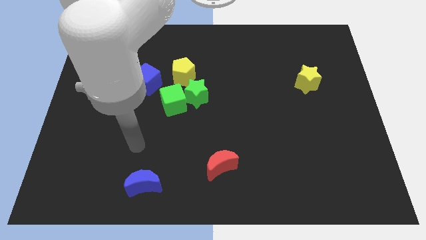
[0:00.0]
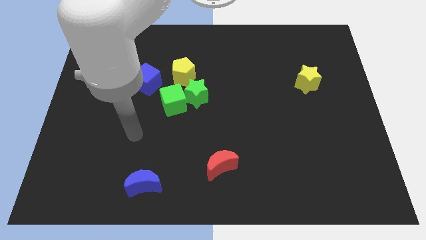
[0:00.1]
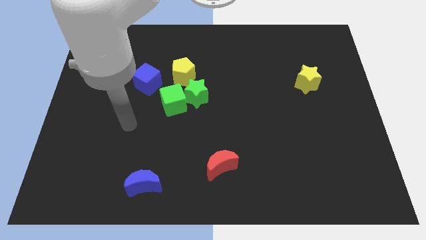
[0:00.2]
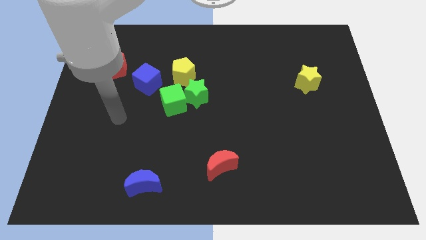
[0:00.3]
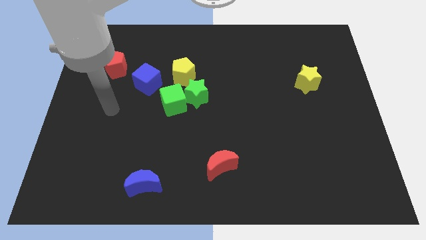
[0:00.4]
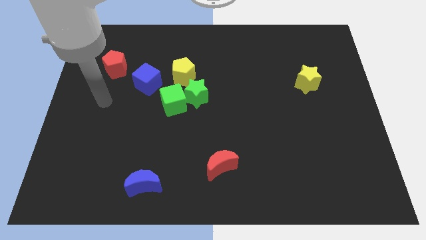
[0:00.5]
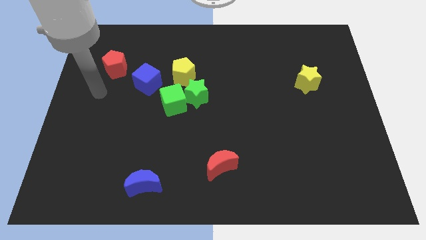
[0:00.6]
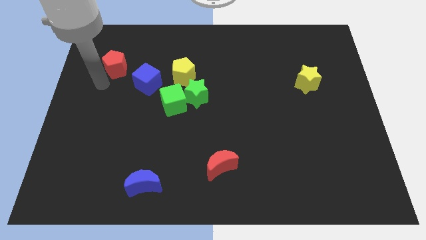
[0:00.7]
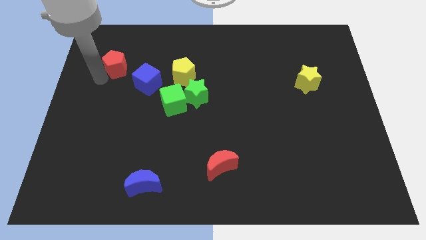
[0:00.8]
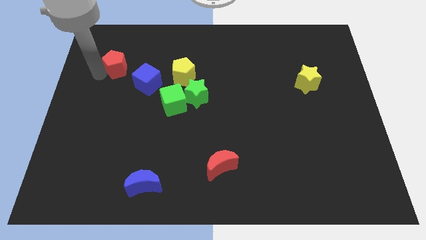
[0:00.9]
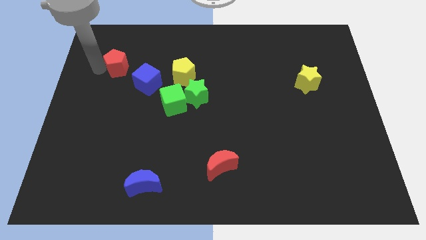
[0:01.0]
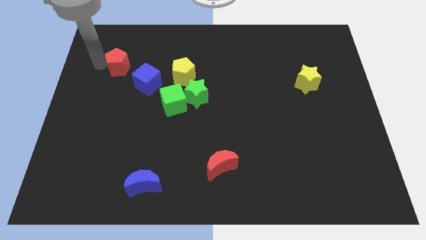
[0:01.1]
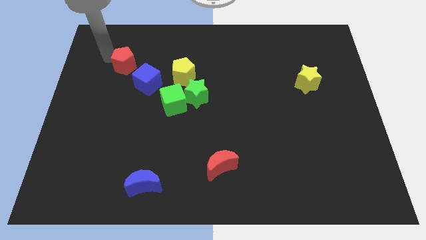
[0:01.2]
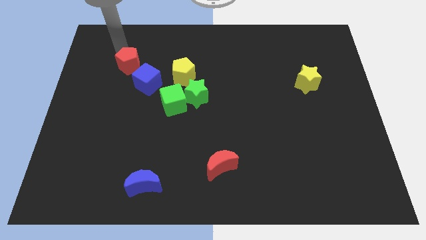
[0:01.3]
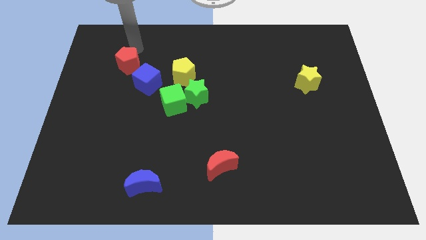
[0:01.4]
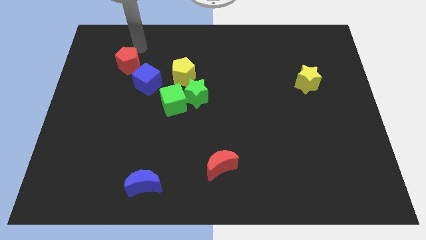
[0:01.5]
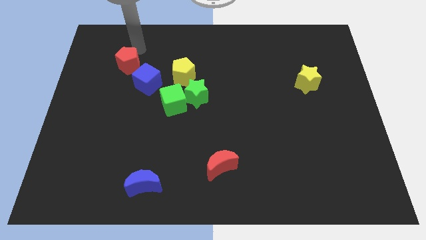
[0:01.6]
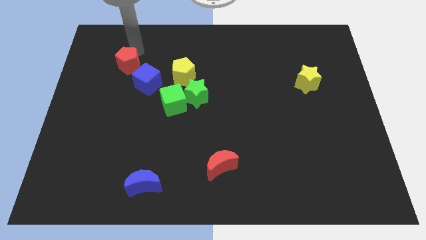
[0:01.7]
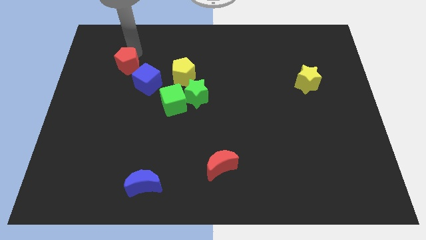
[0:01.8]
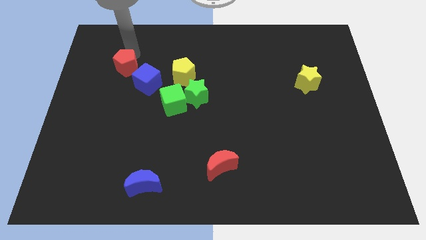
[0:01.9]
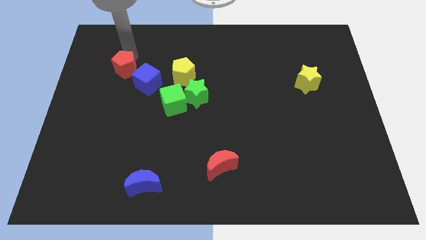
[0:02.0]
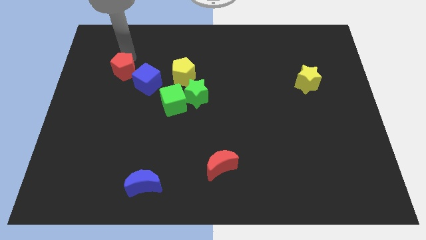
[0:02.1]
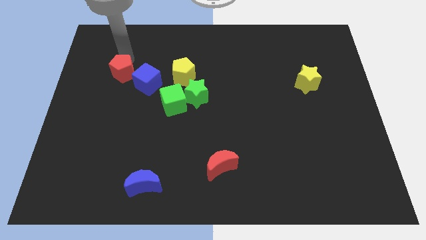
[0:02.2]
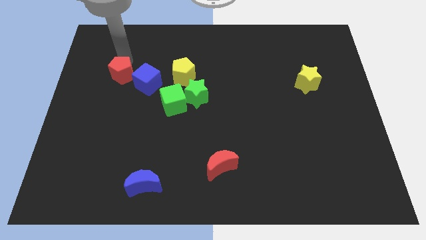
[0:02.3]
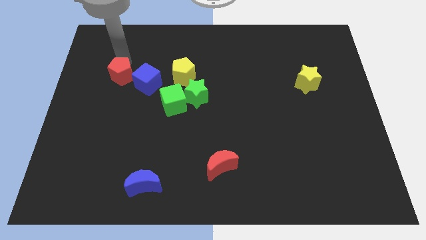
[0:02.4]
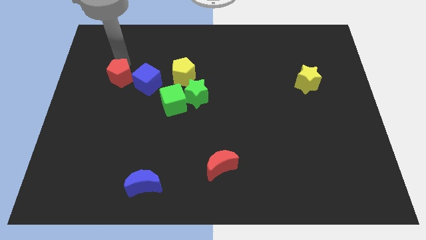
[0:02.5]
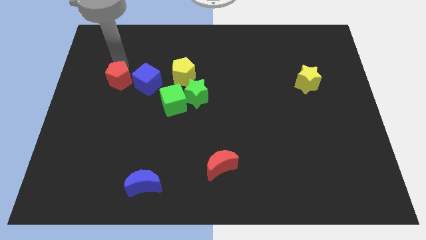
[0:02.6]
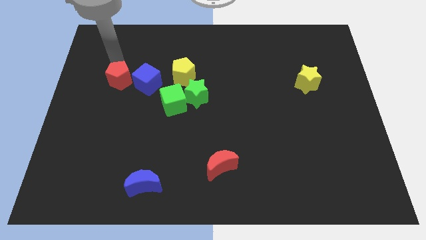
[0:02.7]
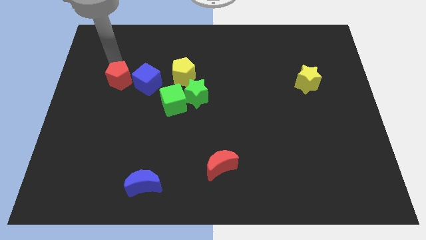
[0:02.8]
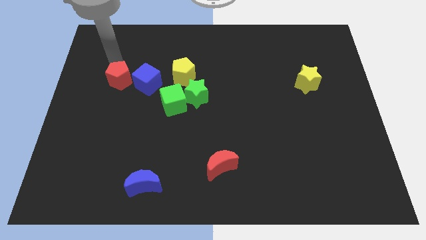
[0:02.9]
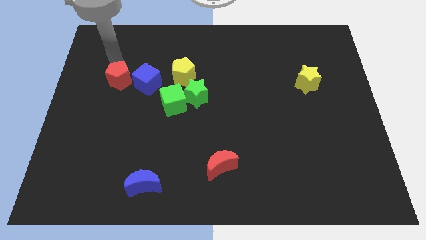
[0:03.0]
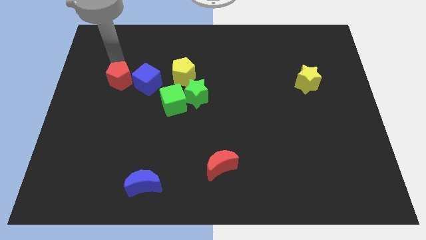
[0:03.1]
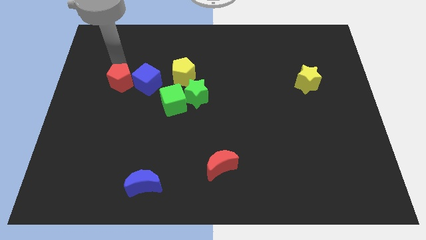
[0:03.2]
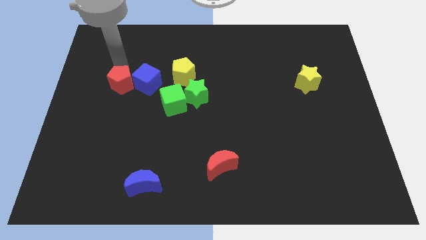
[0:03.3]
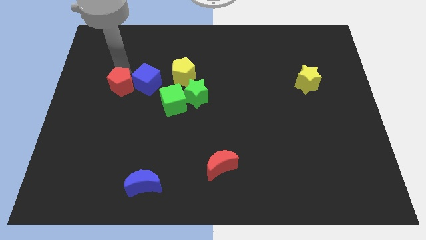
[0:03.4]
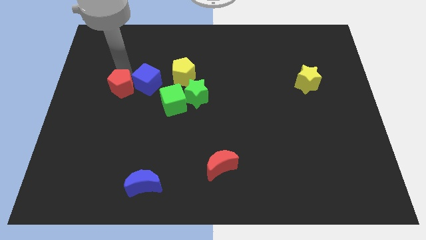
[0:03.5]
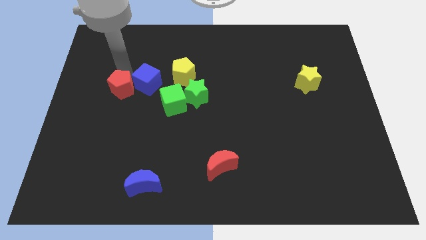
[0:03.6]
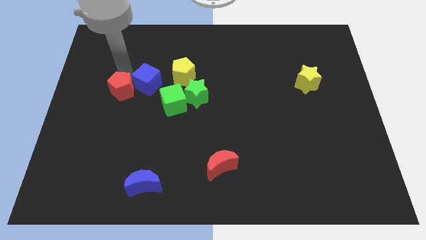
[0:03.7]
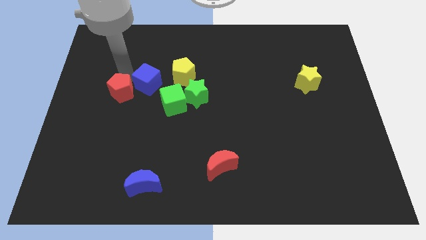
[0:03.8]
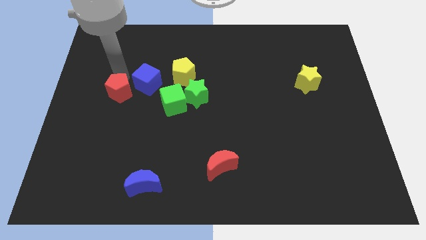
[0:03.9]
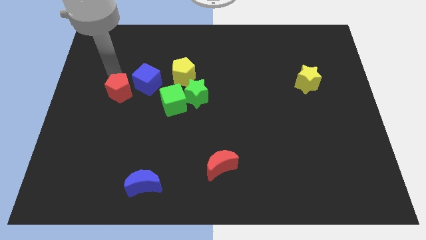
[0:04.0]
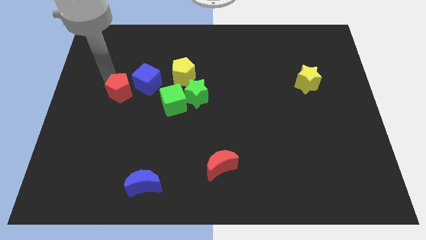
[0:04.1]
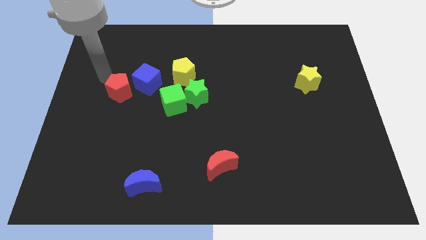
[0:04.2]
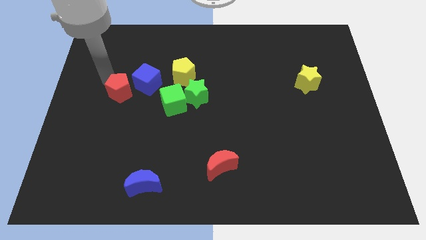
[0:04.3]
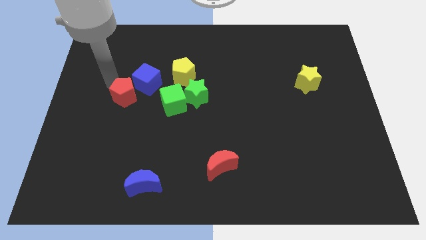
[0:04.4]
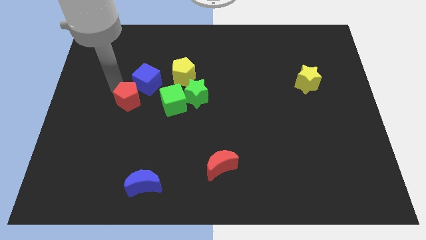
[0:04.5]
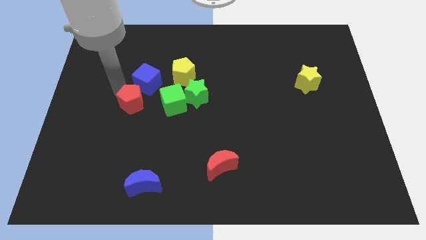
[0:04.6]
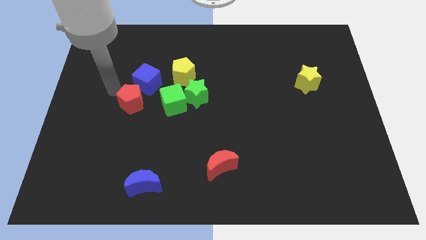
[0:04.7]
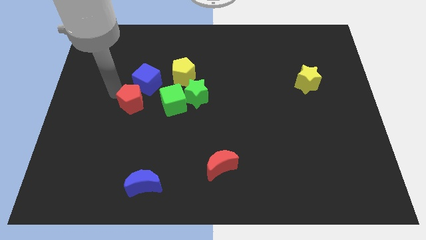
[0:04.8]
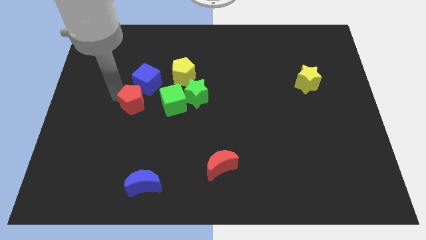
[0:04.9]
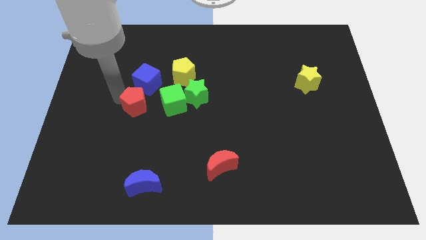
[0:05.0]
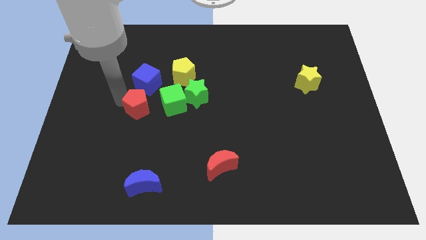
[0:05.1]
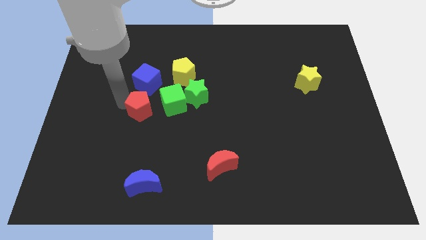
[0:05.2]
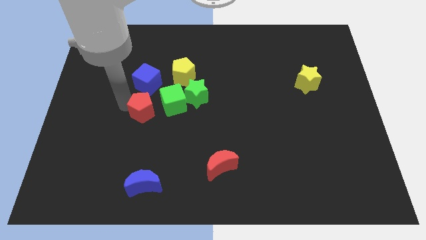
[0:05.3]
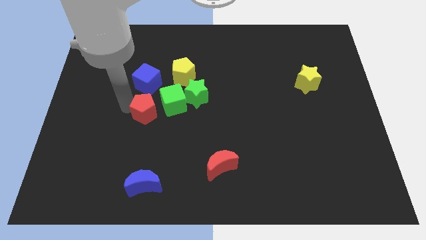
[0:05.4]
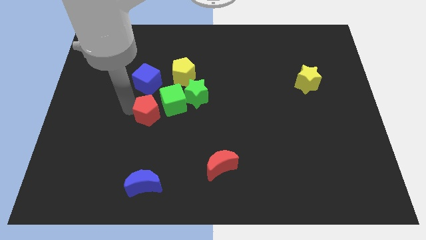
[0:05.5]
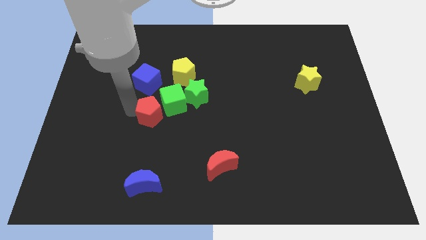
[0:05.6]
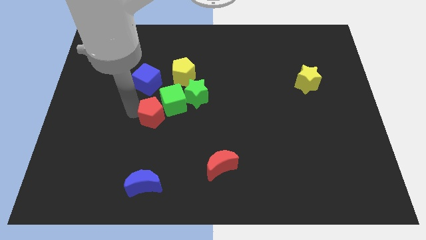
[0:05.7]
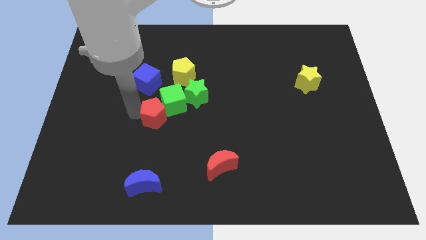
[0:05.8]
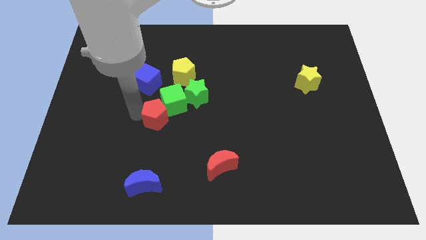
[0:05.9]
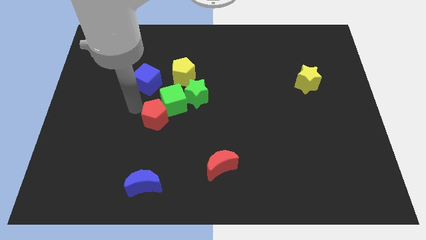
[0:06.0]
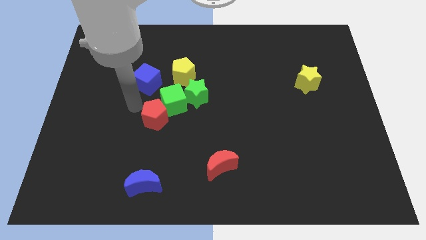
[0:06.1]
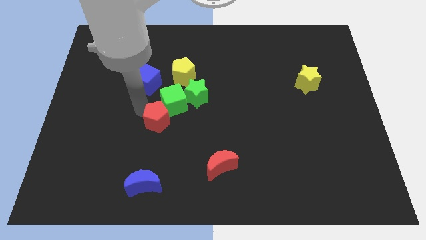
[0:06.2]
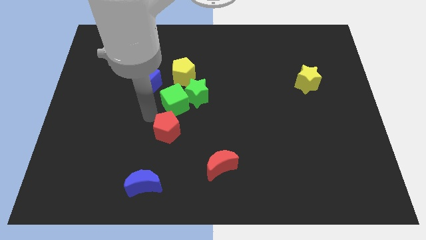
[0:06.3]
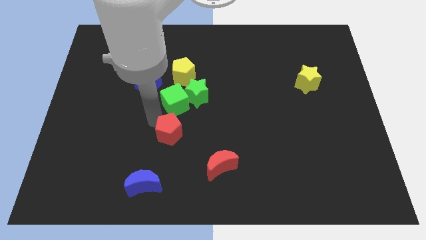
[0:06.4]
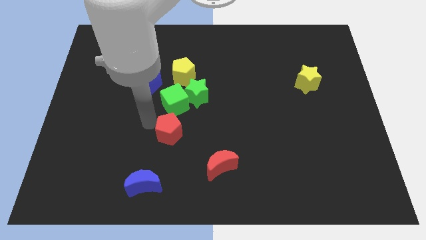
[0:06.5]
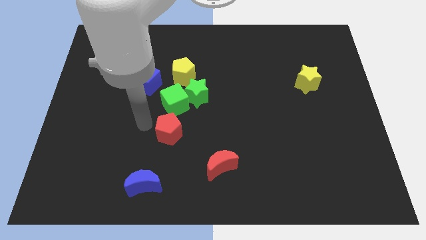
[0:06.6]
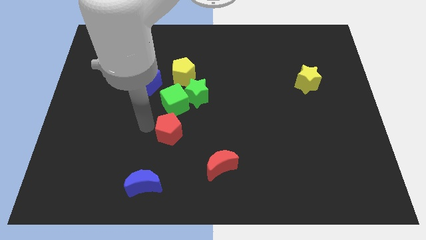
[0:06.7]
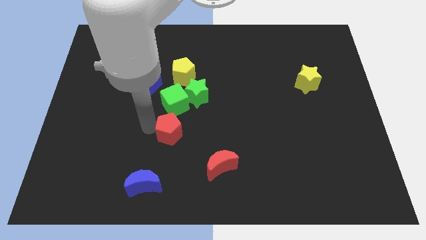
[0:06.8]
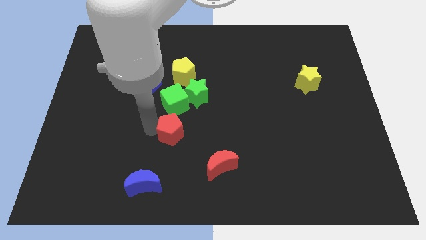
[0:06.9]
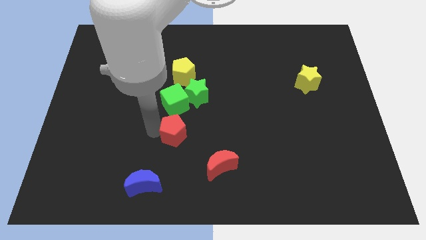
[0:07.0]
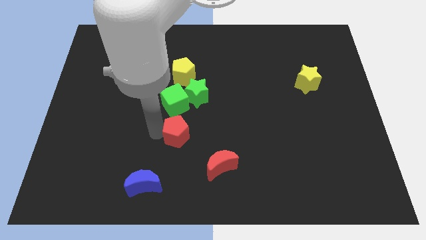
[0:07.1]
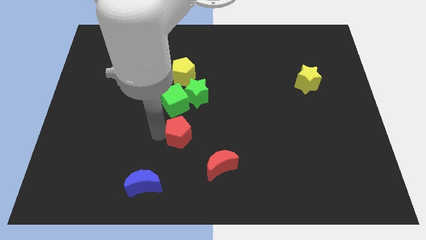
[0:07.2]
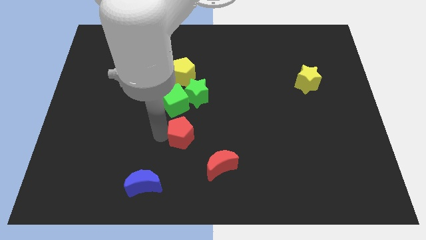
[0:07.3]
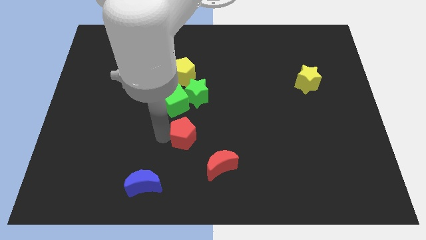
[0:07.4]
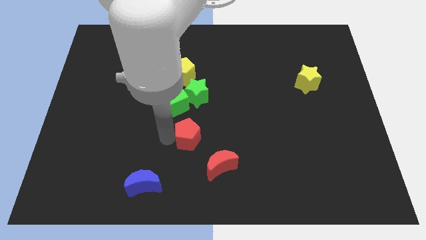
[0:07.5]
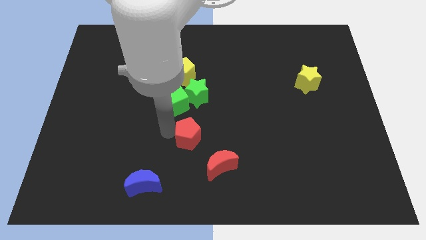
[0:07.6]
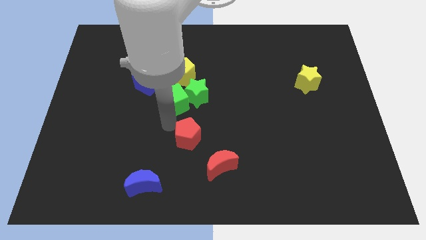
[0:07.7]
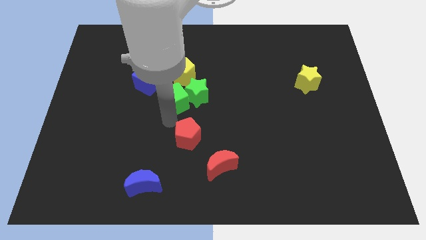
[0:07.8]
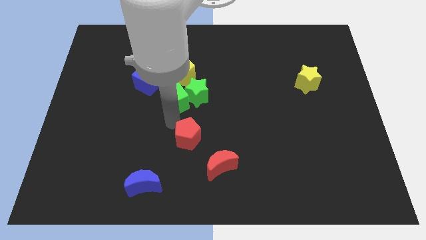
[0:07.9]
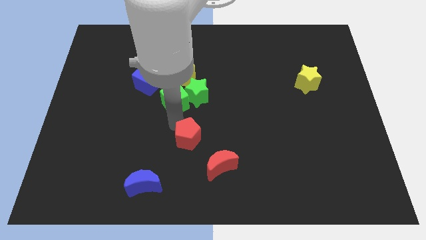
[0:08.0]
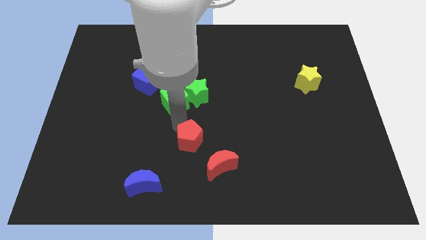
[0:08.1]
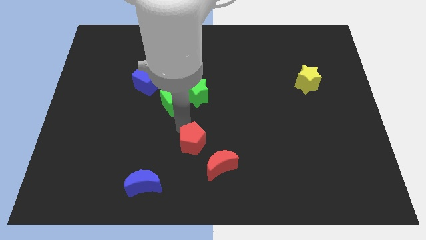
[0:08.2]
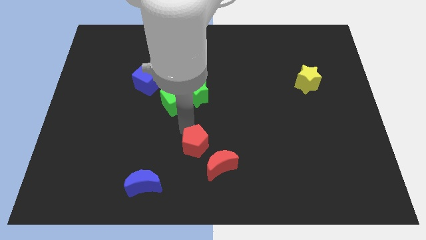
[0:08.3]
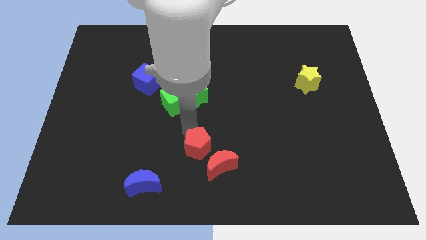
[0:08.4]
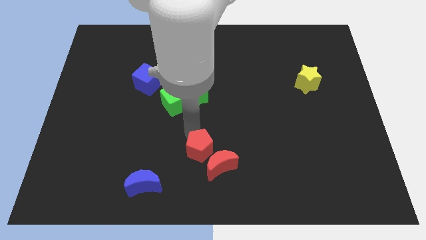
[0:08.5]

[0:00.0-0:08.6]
slide the red pentagon next to the red moon
